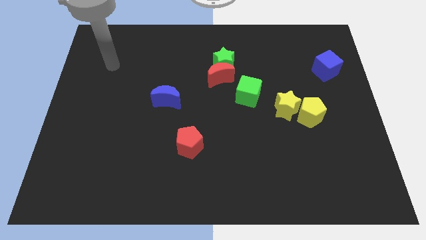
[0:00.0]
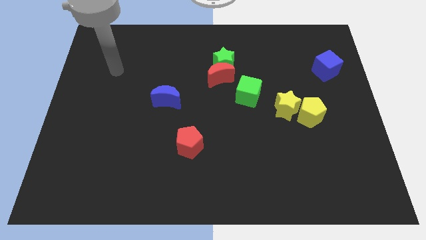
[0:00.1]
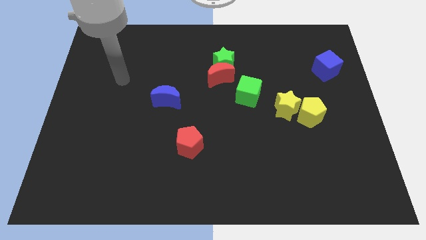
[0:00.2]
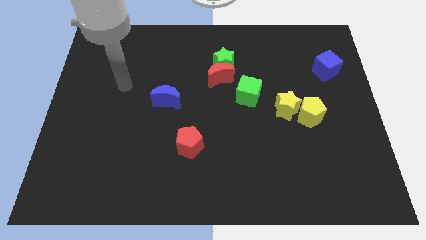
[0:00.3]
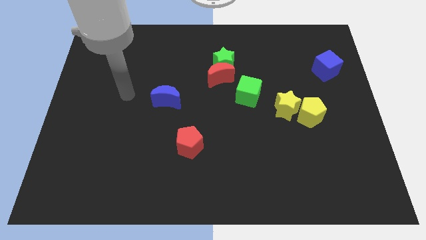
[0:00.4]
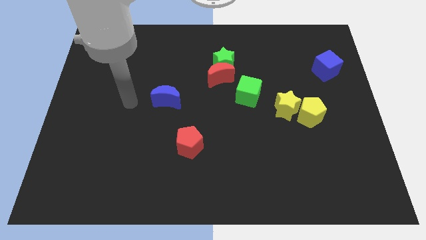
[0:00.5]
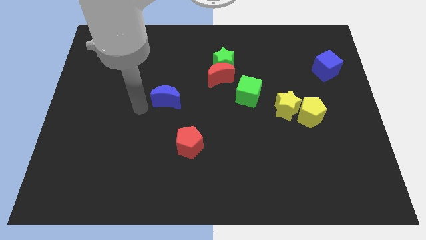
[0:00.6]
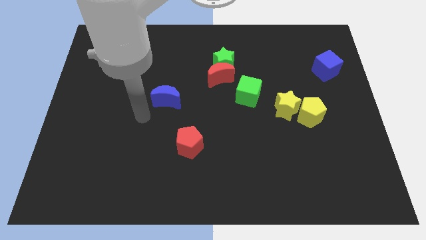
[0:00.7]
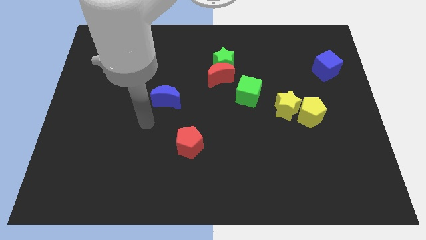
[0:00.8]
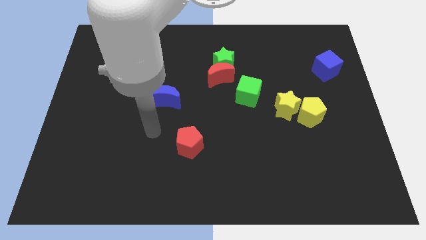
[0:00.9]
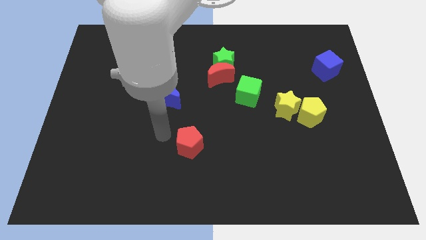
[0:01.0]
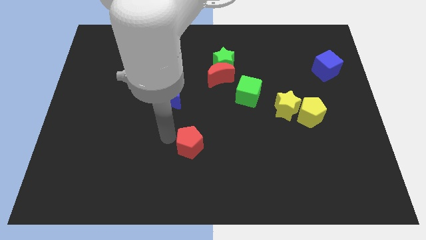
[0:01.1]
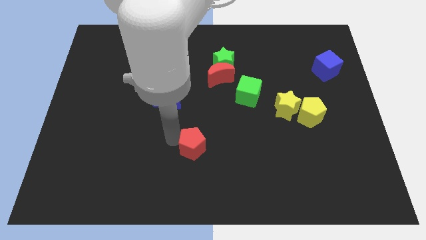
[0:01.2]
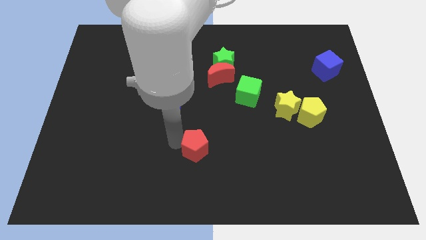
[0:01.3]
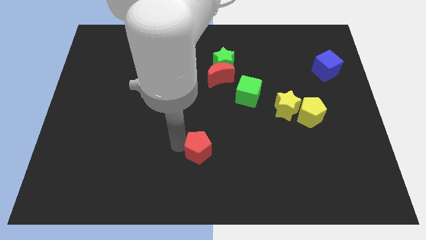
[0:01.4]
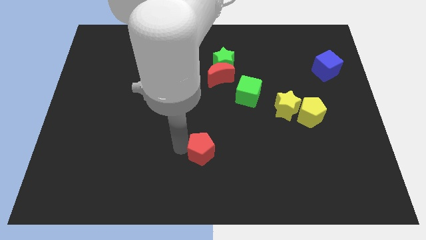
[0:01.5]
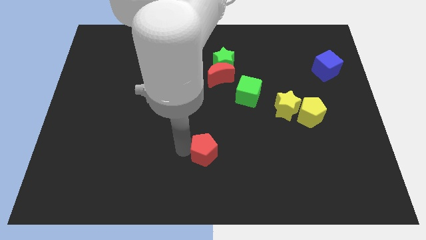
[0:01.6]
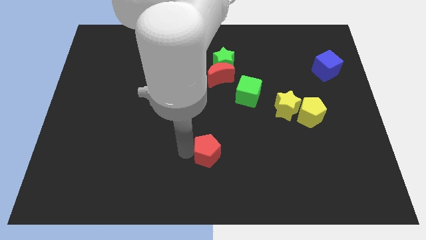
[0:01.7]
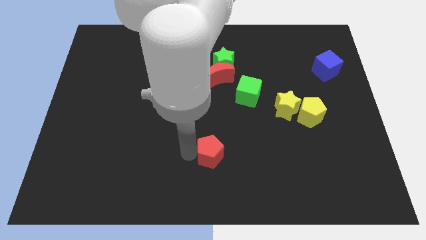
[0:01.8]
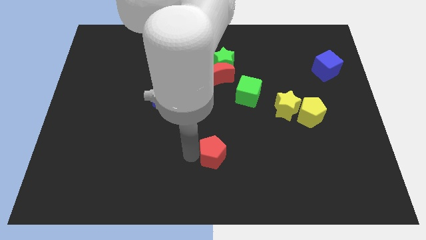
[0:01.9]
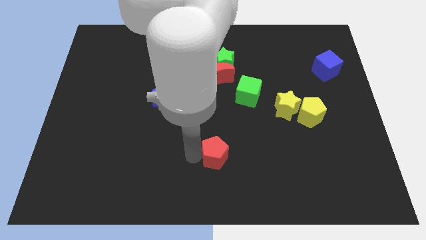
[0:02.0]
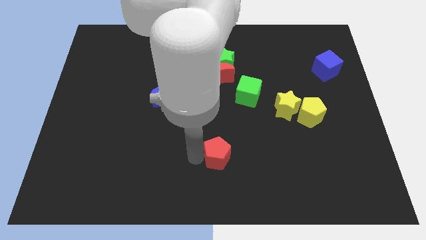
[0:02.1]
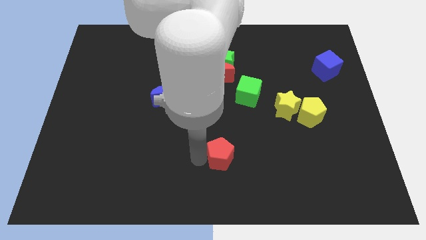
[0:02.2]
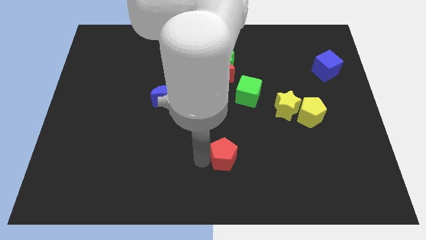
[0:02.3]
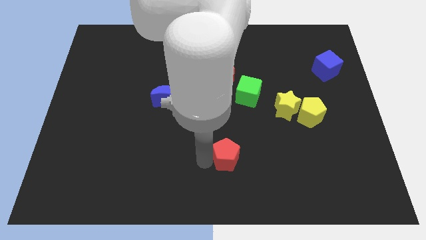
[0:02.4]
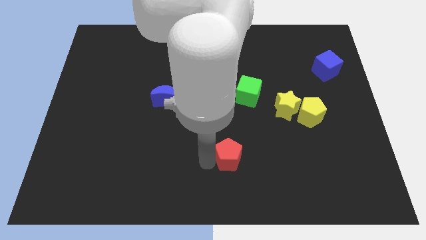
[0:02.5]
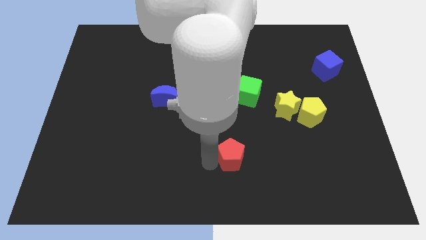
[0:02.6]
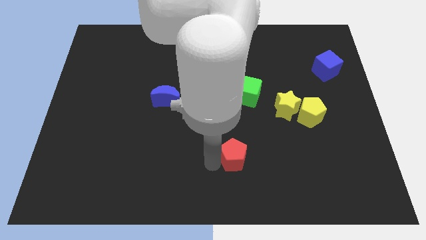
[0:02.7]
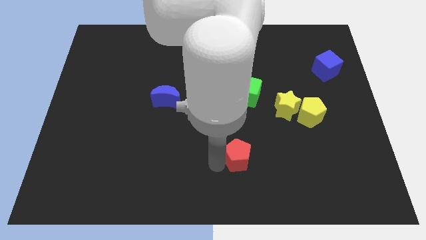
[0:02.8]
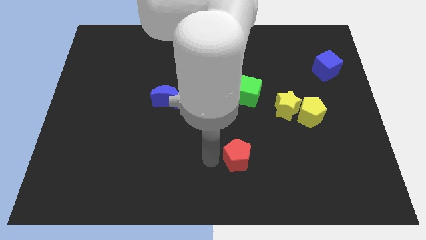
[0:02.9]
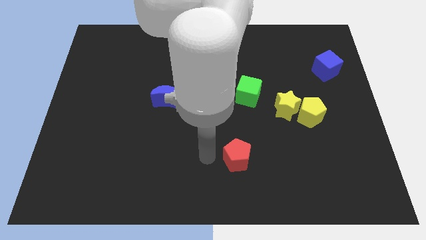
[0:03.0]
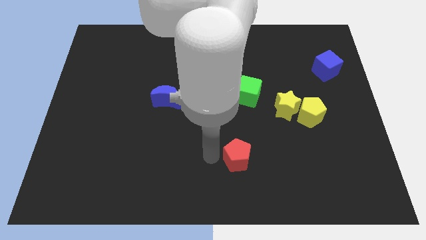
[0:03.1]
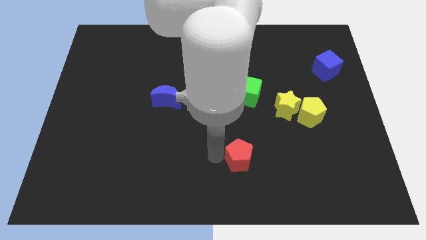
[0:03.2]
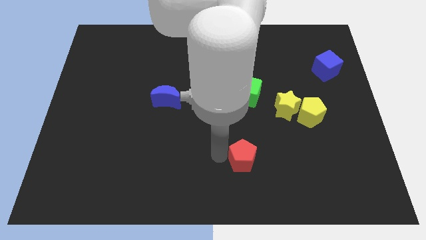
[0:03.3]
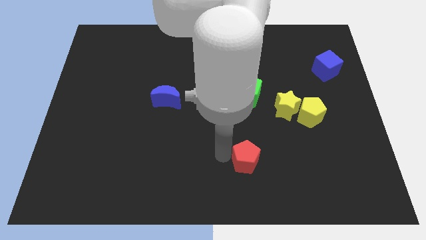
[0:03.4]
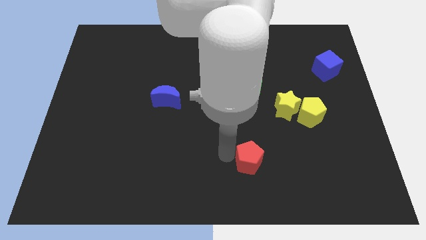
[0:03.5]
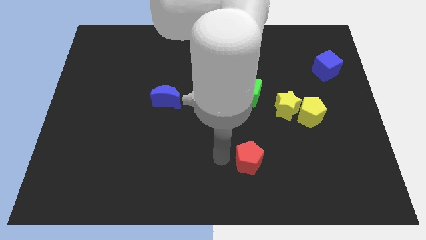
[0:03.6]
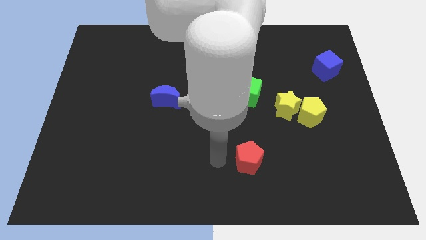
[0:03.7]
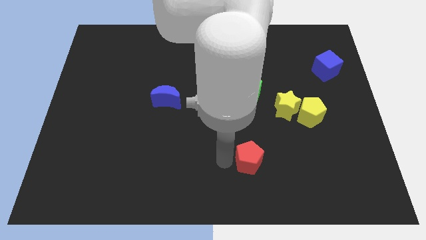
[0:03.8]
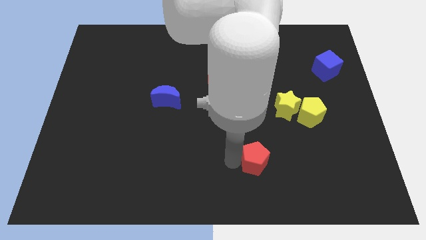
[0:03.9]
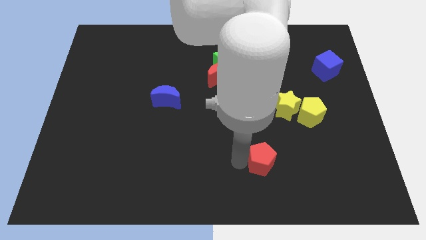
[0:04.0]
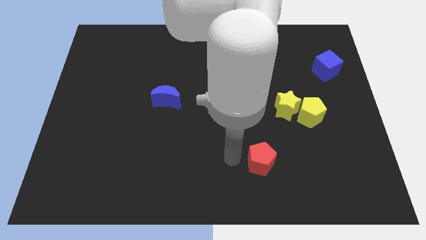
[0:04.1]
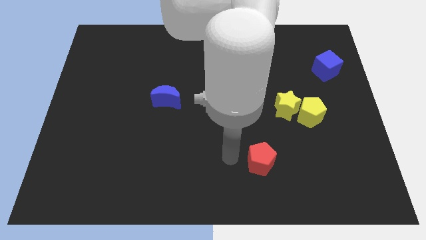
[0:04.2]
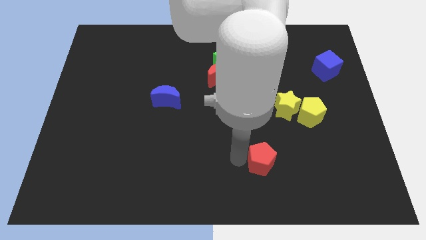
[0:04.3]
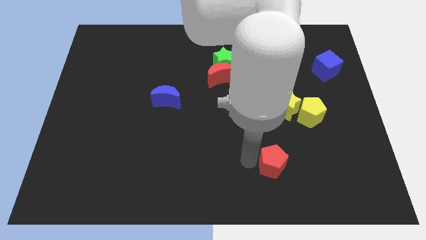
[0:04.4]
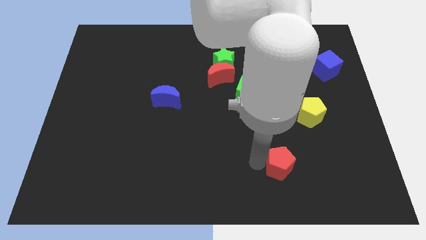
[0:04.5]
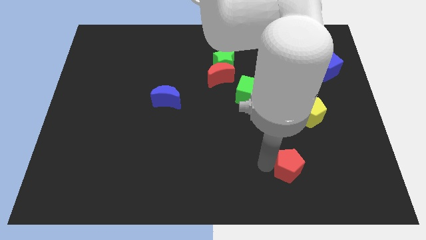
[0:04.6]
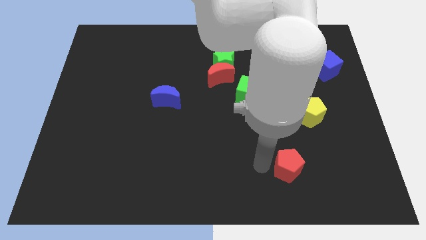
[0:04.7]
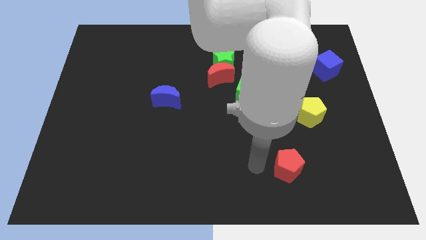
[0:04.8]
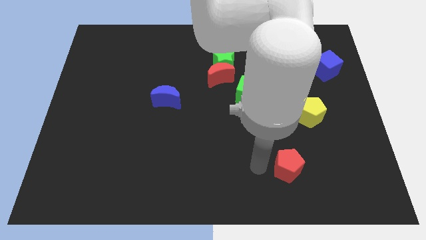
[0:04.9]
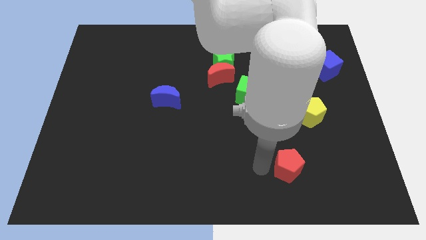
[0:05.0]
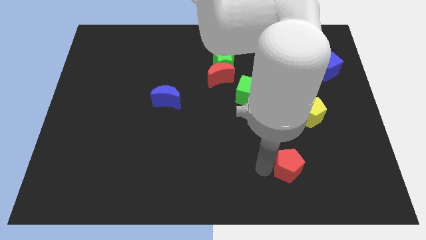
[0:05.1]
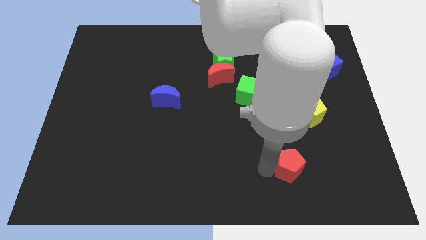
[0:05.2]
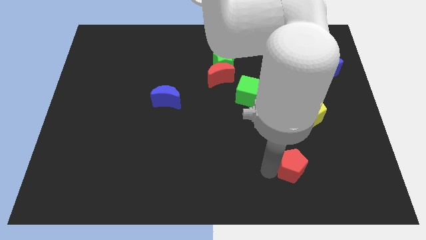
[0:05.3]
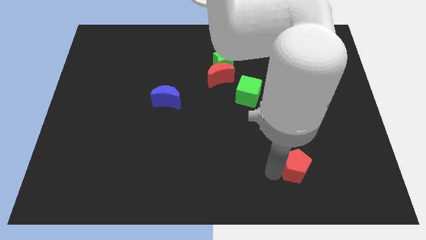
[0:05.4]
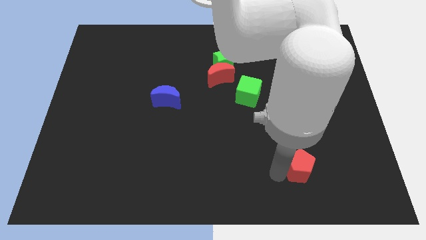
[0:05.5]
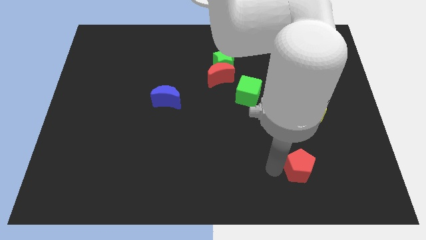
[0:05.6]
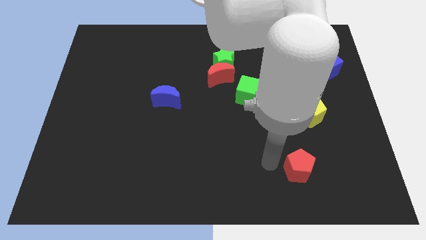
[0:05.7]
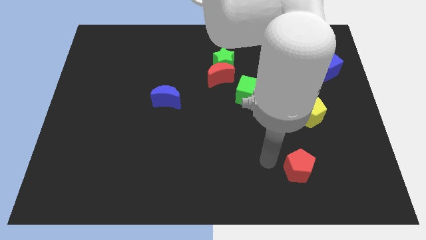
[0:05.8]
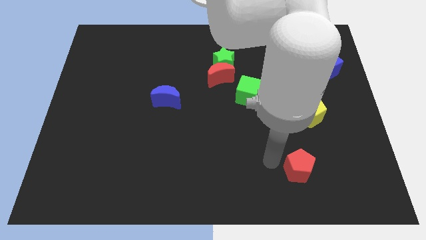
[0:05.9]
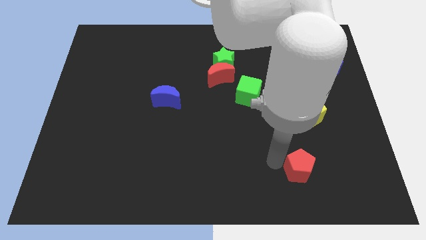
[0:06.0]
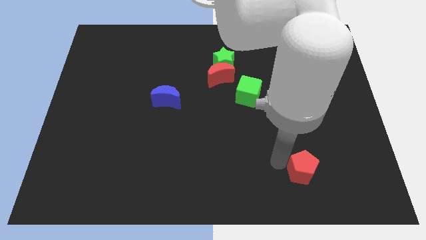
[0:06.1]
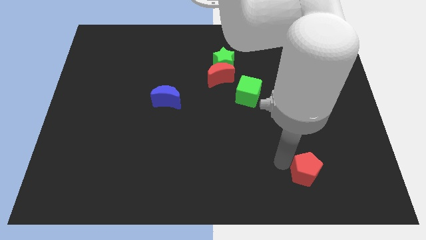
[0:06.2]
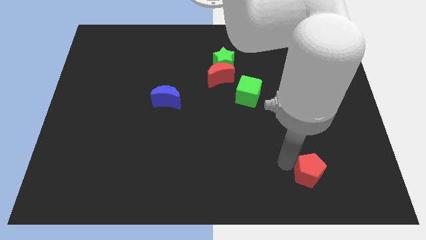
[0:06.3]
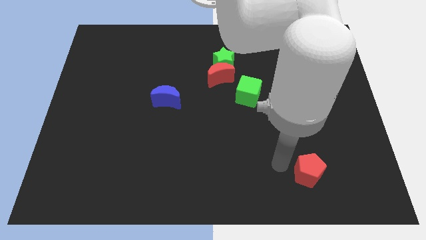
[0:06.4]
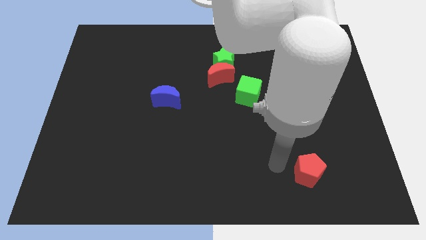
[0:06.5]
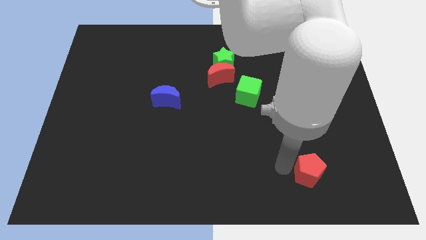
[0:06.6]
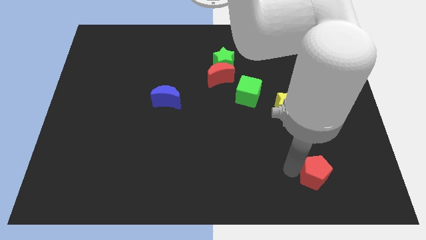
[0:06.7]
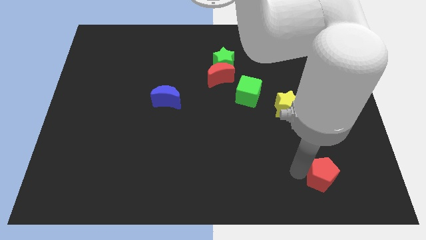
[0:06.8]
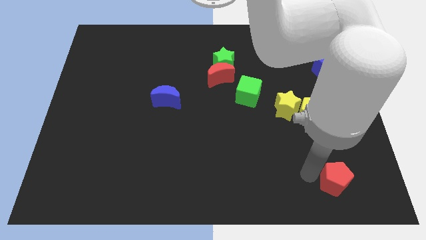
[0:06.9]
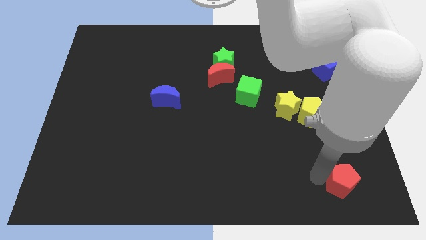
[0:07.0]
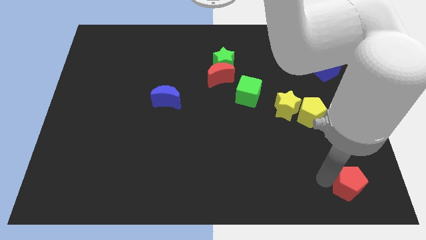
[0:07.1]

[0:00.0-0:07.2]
slide the red pentagon to the bottom right of the board
